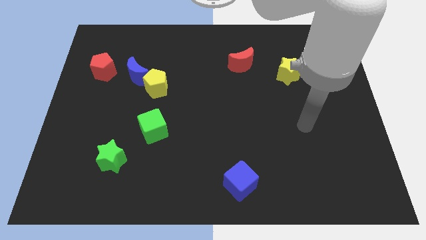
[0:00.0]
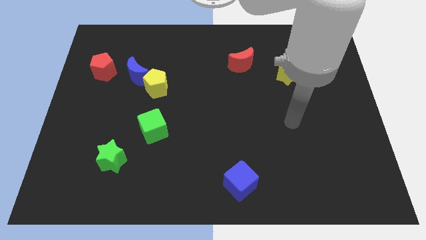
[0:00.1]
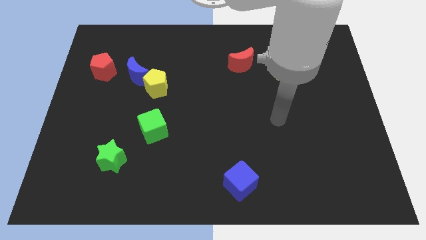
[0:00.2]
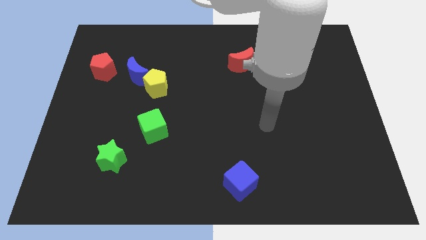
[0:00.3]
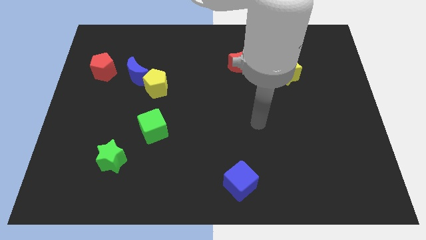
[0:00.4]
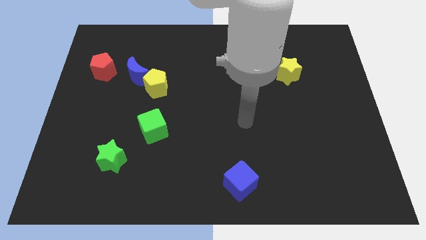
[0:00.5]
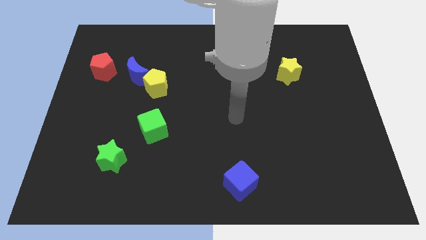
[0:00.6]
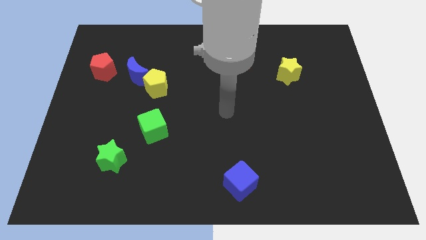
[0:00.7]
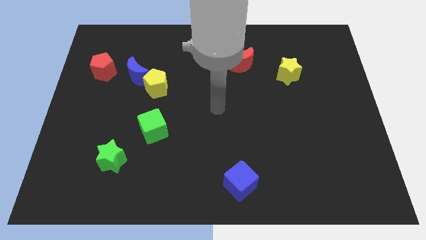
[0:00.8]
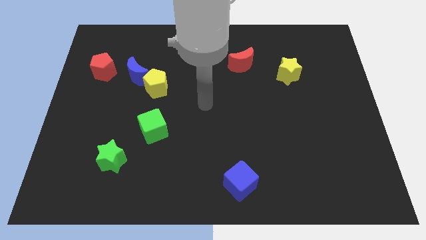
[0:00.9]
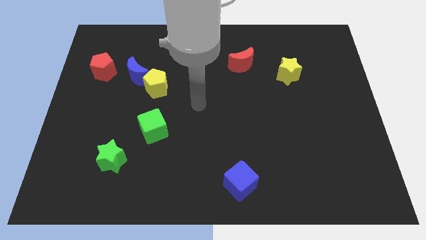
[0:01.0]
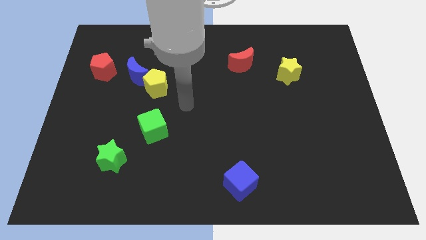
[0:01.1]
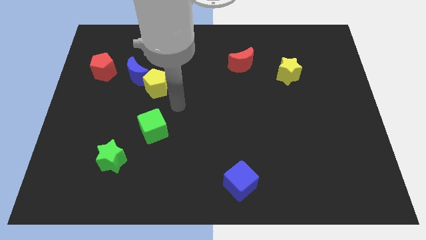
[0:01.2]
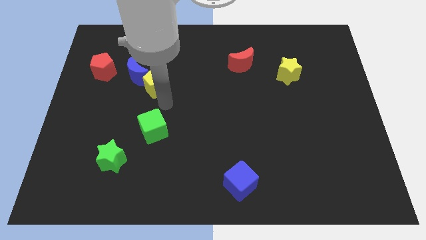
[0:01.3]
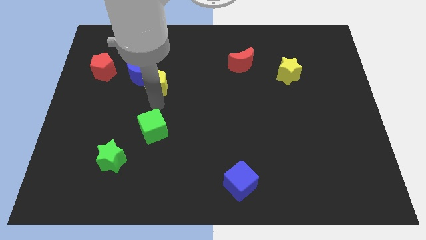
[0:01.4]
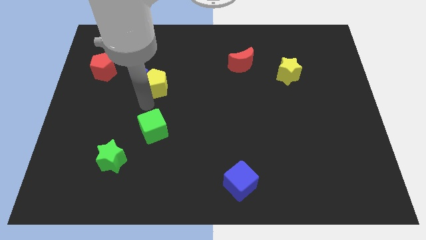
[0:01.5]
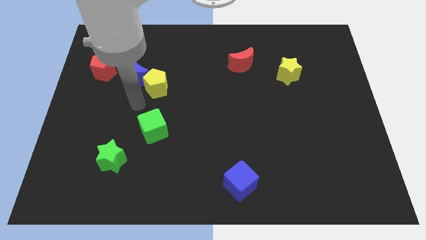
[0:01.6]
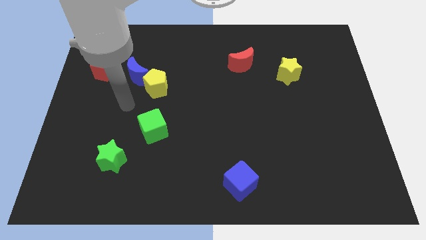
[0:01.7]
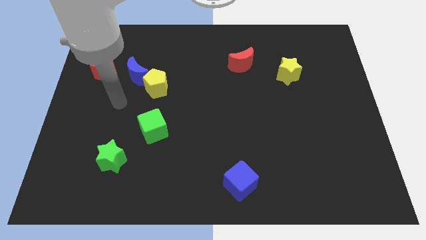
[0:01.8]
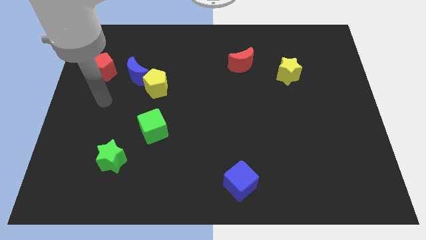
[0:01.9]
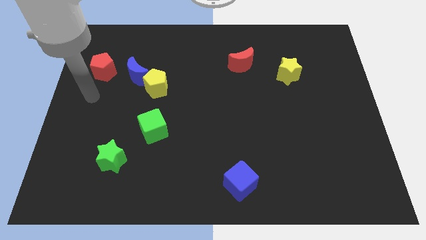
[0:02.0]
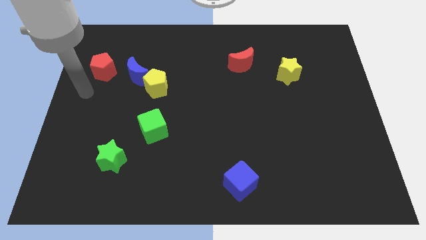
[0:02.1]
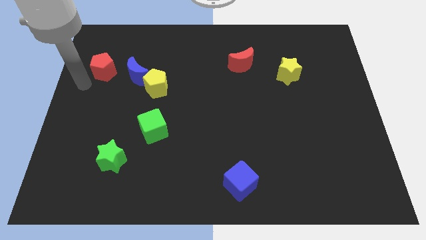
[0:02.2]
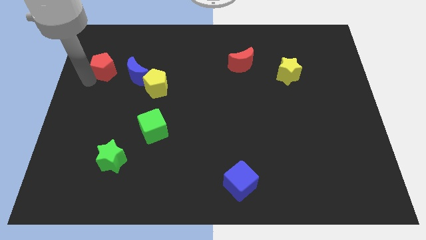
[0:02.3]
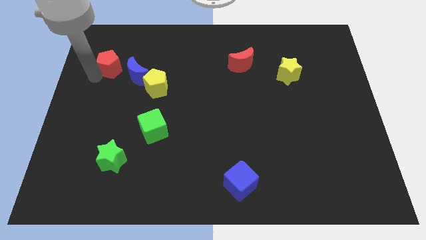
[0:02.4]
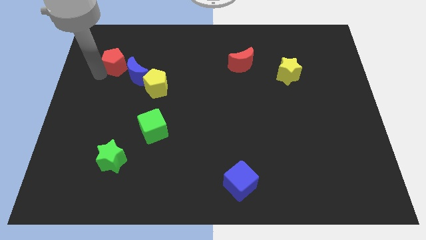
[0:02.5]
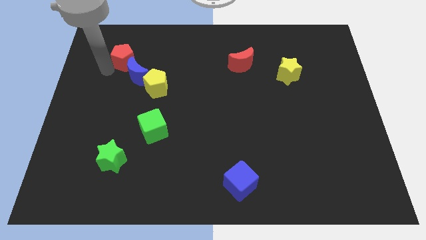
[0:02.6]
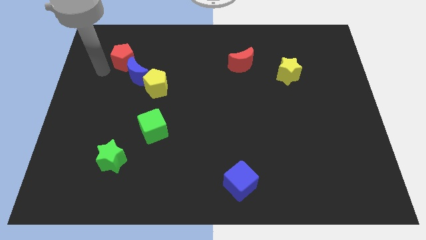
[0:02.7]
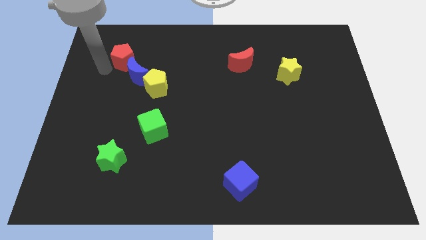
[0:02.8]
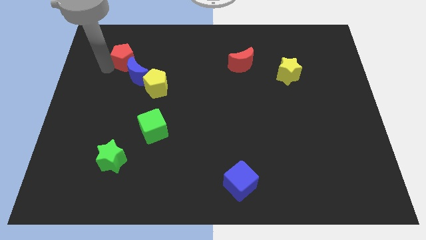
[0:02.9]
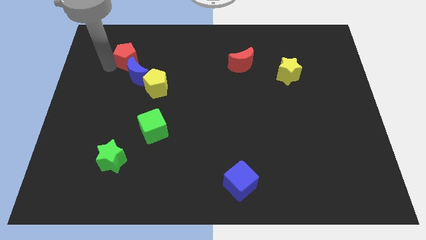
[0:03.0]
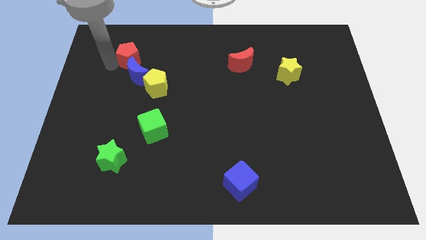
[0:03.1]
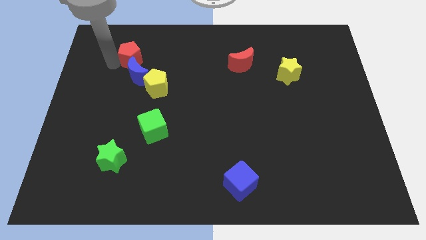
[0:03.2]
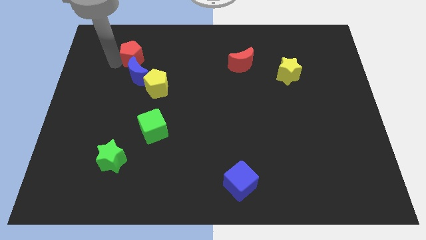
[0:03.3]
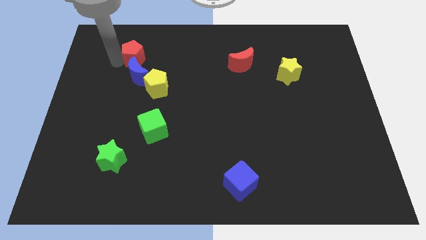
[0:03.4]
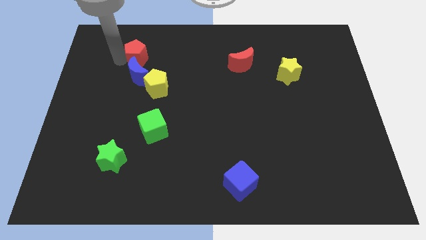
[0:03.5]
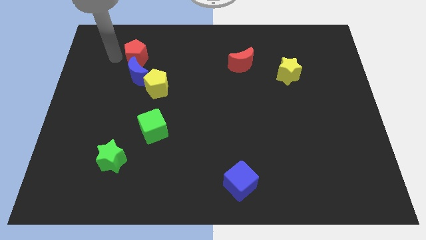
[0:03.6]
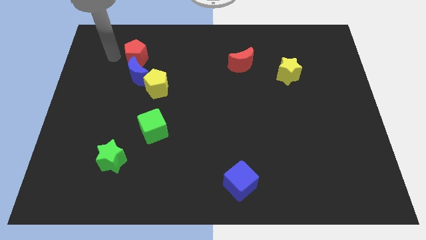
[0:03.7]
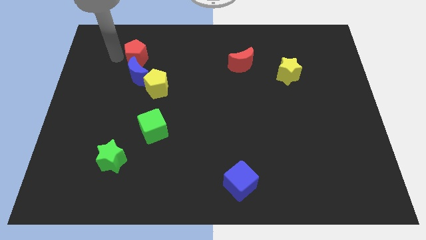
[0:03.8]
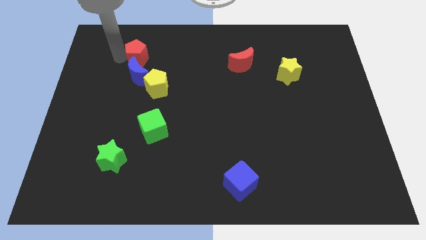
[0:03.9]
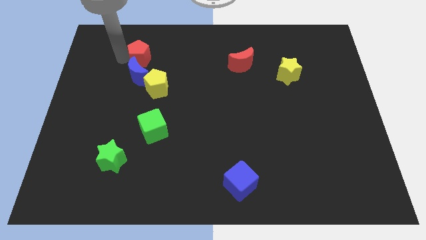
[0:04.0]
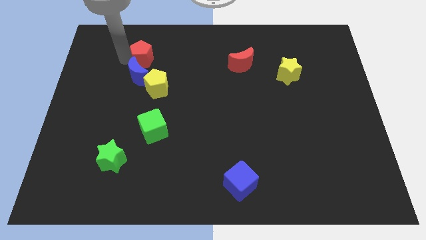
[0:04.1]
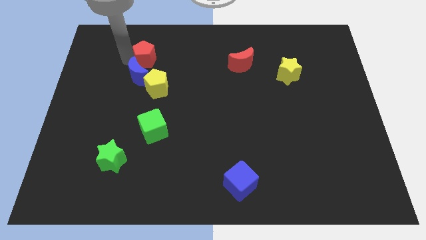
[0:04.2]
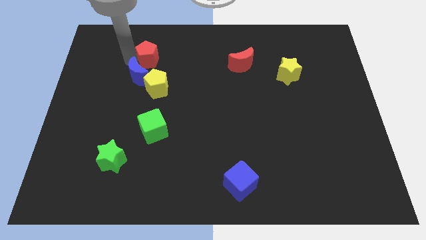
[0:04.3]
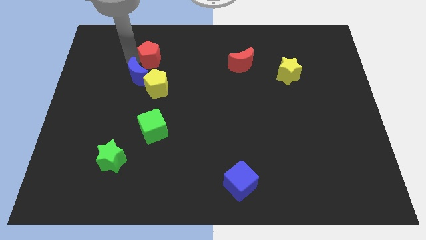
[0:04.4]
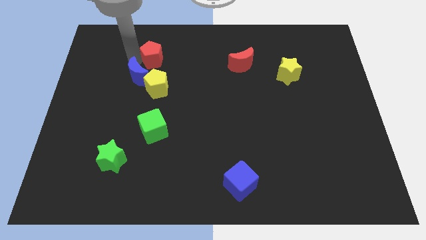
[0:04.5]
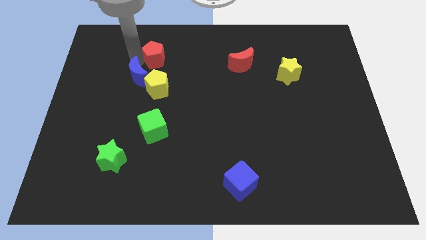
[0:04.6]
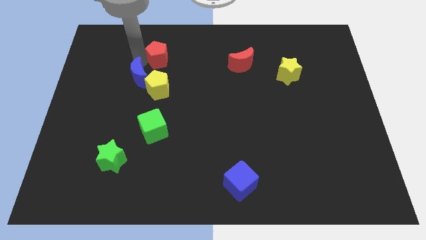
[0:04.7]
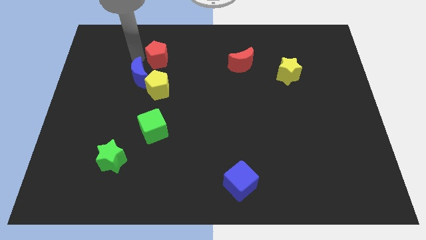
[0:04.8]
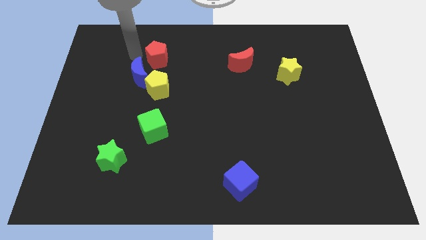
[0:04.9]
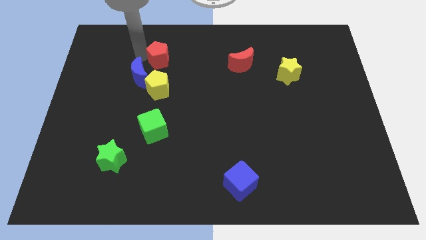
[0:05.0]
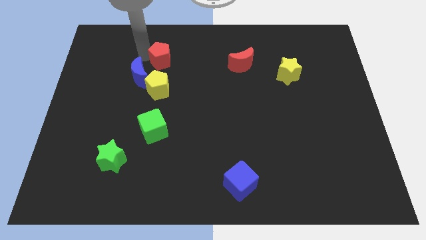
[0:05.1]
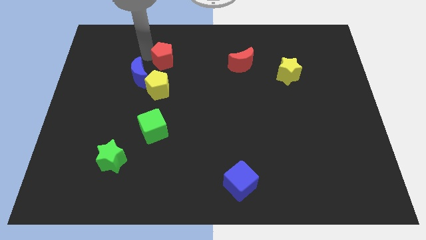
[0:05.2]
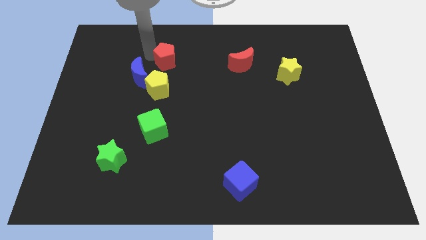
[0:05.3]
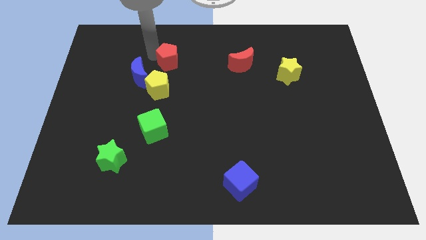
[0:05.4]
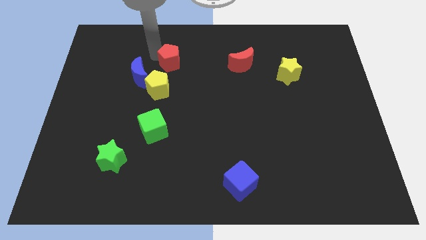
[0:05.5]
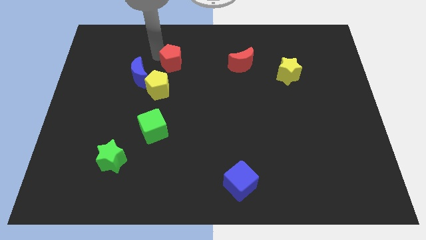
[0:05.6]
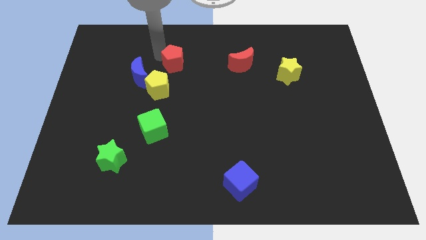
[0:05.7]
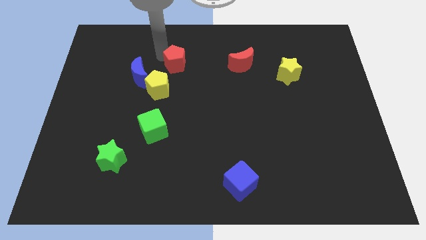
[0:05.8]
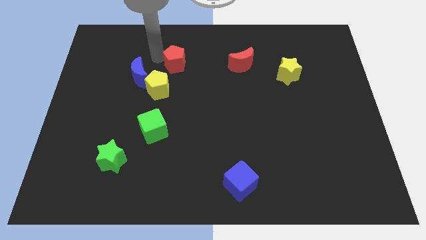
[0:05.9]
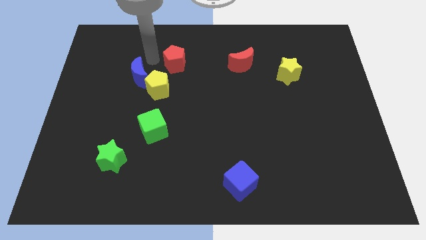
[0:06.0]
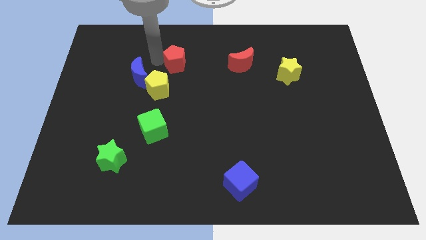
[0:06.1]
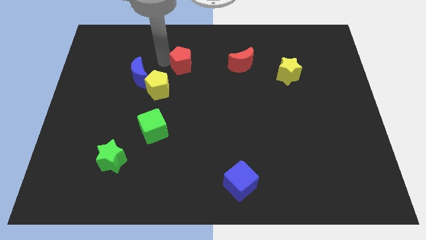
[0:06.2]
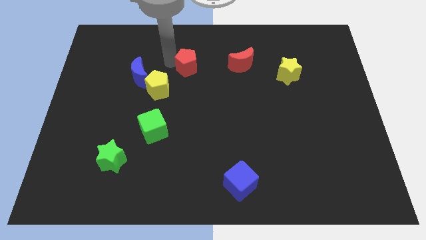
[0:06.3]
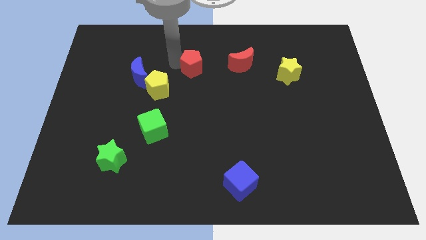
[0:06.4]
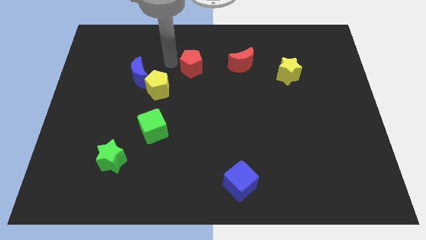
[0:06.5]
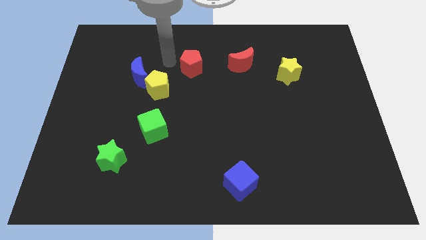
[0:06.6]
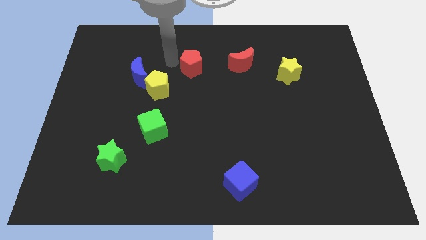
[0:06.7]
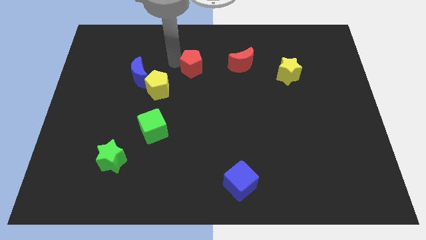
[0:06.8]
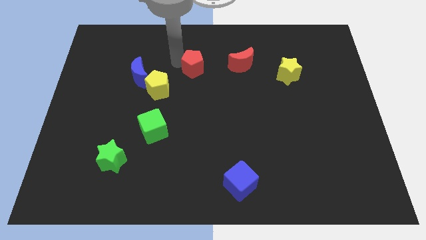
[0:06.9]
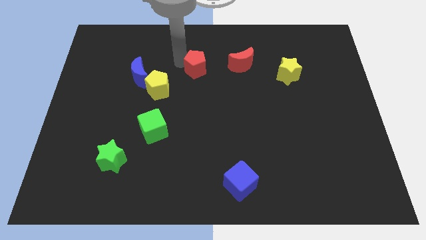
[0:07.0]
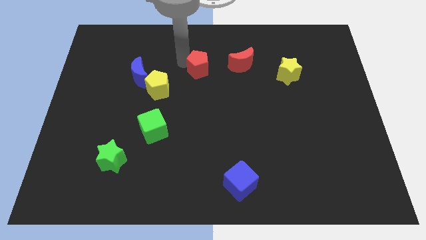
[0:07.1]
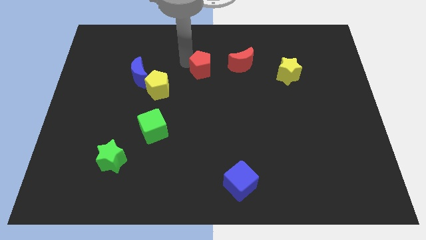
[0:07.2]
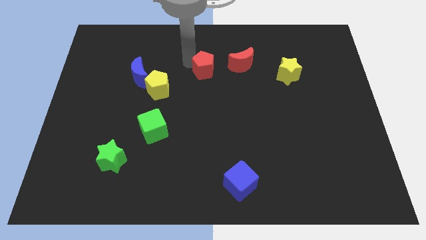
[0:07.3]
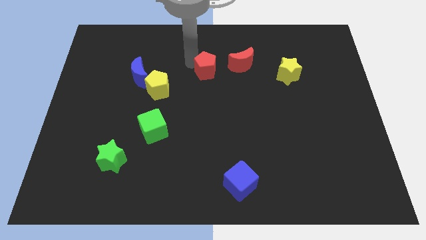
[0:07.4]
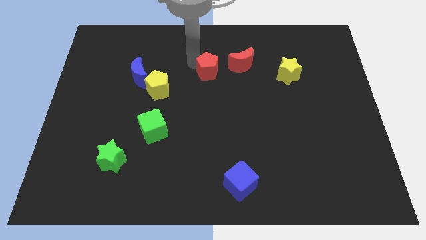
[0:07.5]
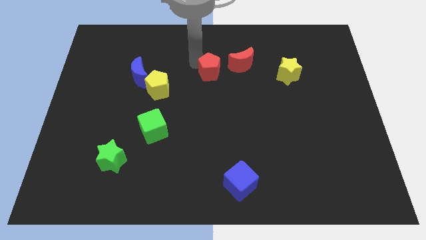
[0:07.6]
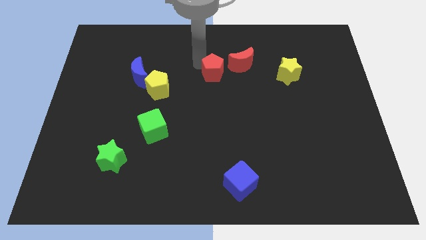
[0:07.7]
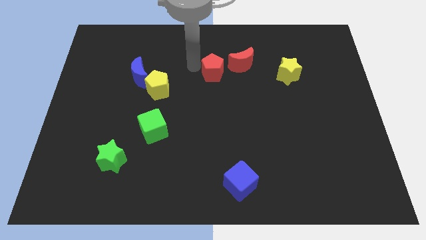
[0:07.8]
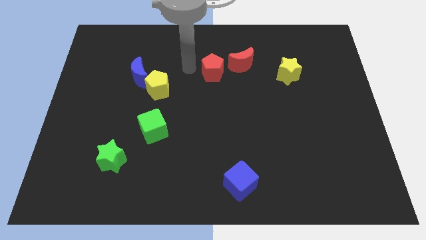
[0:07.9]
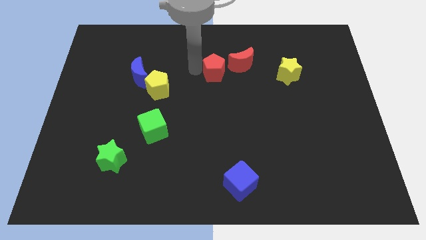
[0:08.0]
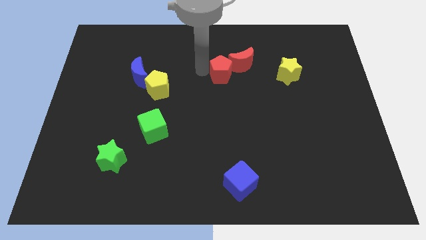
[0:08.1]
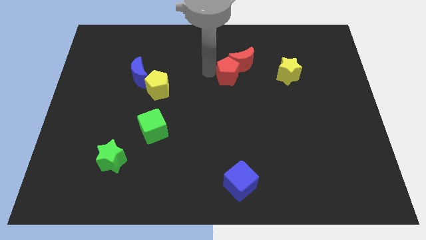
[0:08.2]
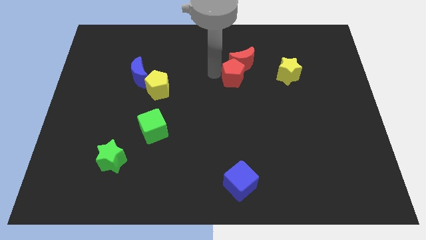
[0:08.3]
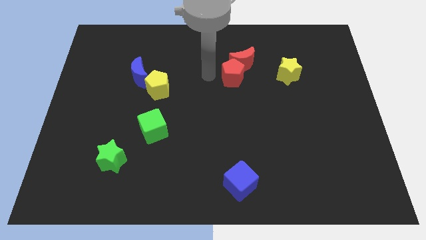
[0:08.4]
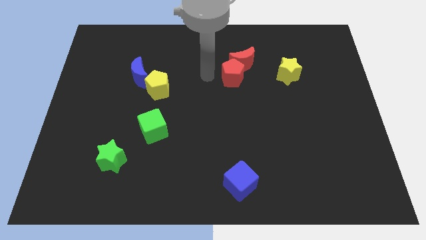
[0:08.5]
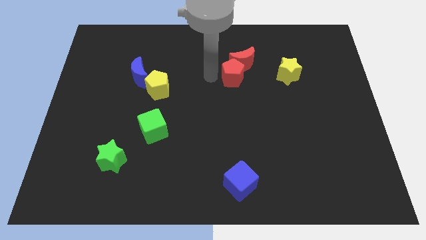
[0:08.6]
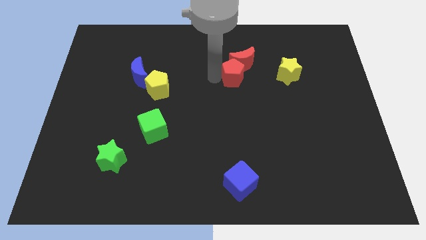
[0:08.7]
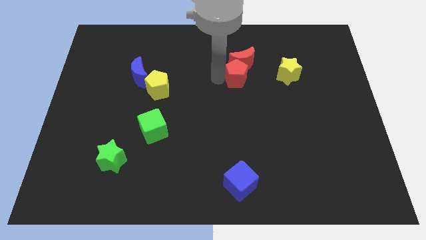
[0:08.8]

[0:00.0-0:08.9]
put the red pentagon diagonally down and to the right of the red moon
